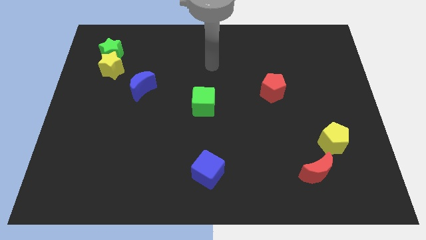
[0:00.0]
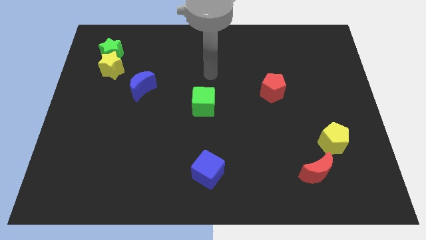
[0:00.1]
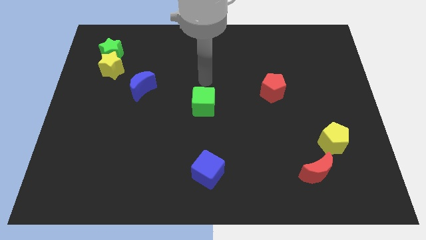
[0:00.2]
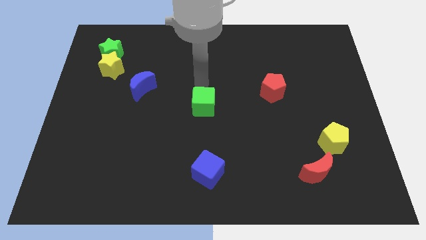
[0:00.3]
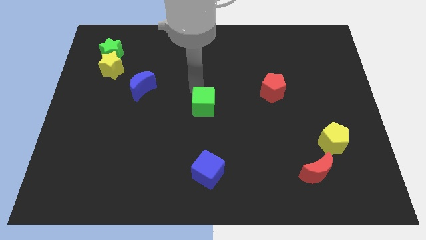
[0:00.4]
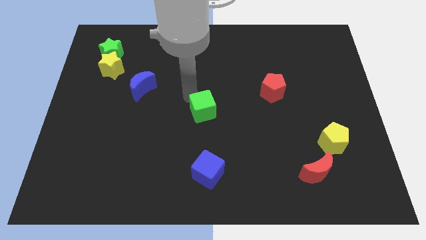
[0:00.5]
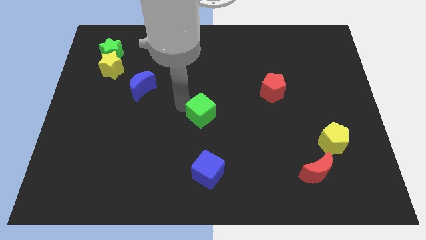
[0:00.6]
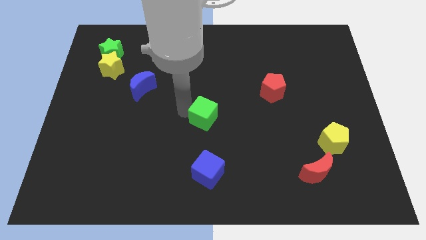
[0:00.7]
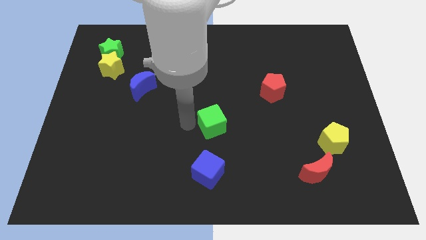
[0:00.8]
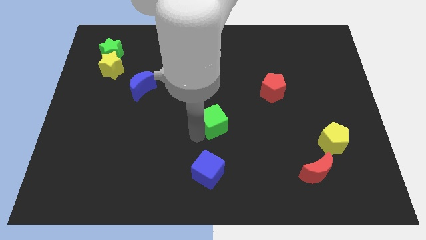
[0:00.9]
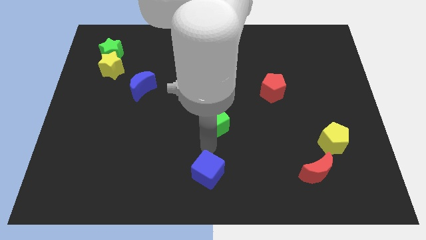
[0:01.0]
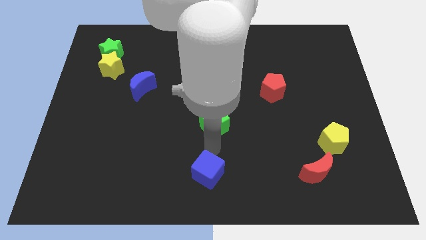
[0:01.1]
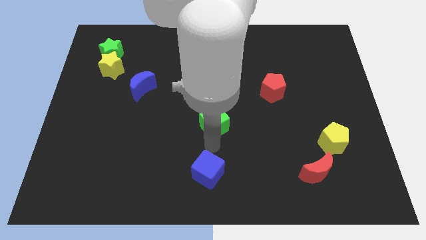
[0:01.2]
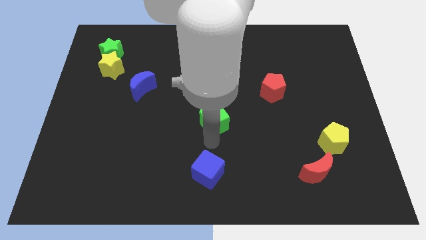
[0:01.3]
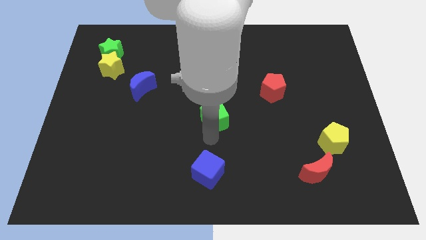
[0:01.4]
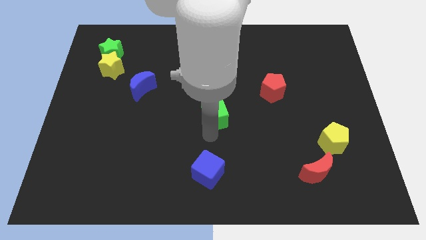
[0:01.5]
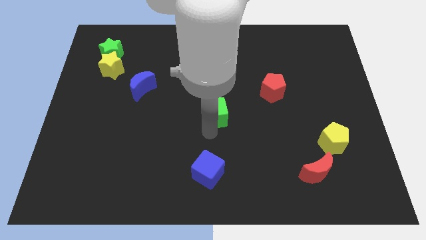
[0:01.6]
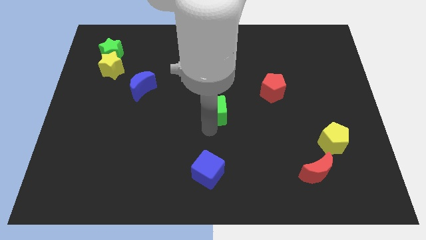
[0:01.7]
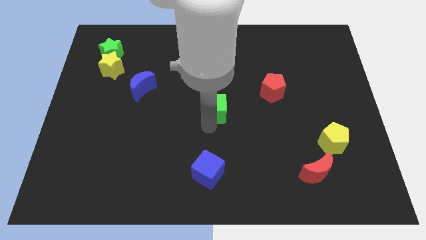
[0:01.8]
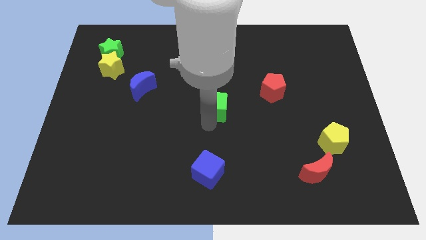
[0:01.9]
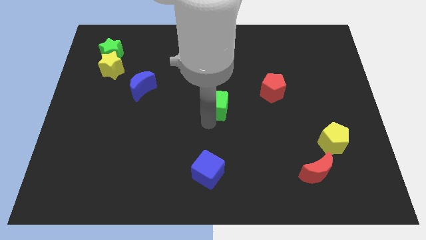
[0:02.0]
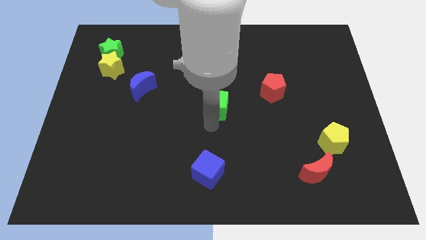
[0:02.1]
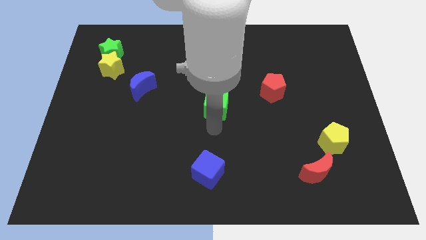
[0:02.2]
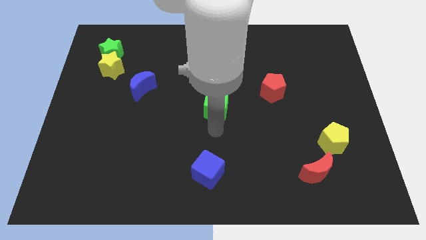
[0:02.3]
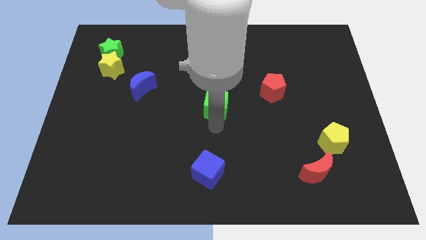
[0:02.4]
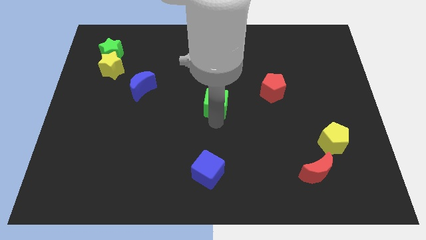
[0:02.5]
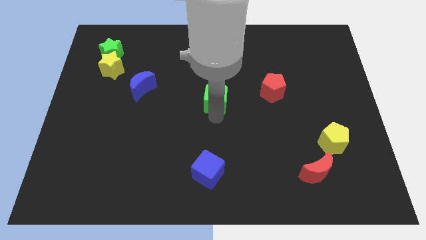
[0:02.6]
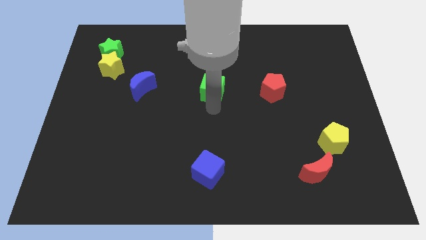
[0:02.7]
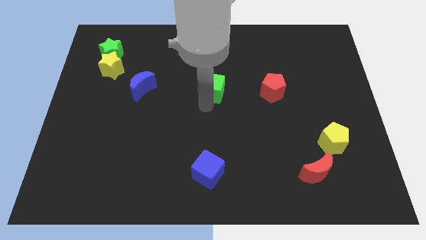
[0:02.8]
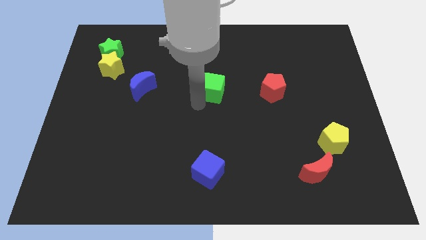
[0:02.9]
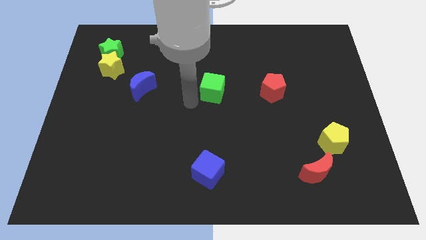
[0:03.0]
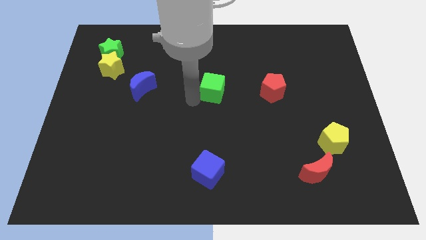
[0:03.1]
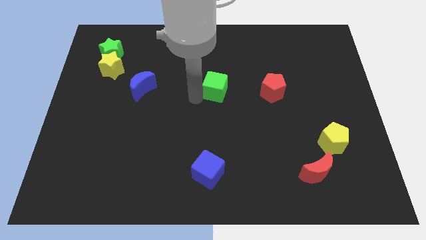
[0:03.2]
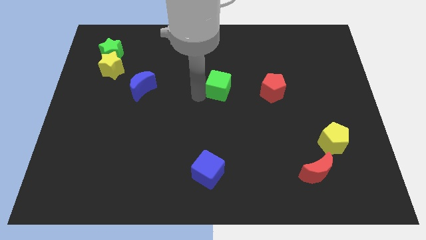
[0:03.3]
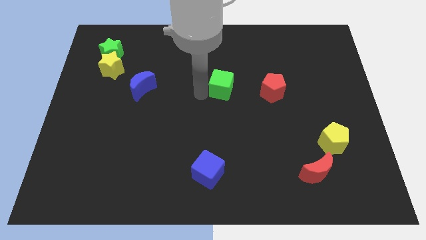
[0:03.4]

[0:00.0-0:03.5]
slightly push the green cube diagonally upwards and to the right

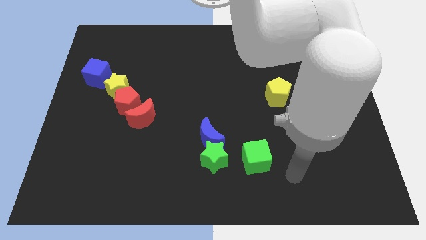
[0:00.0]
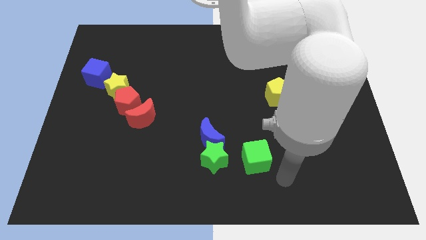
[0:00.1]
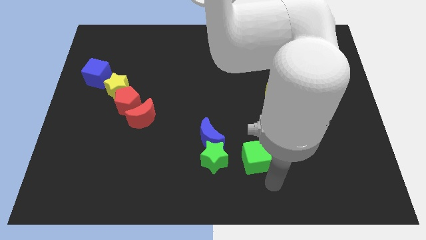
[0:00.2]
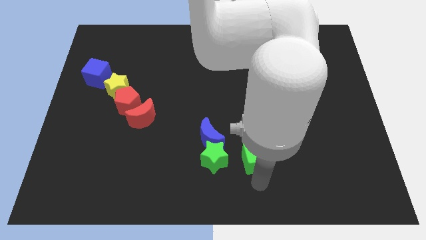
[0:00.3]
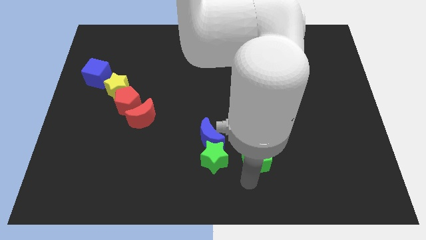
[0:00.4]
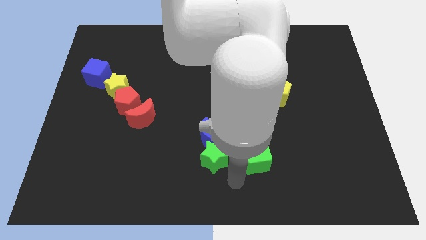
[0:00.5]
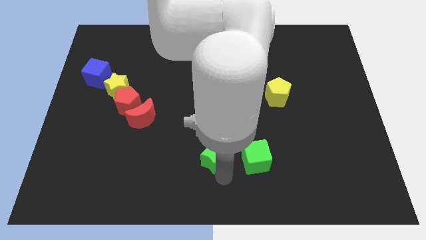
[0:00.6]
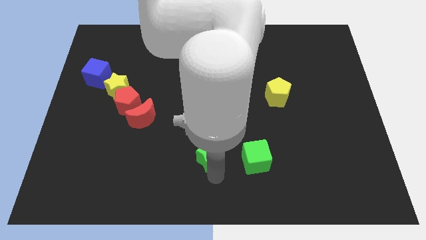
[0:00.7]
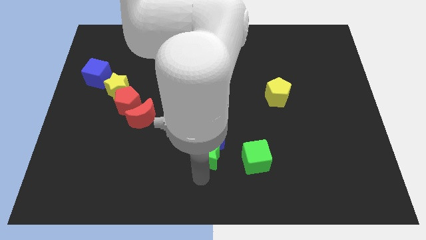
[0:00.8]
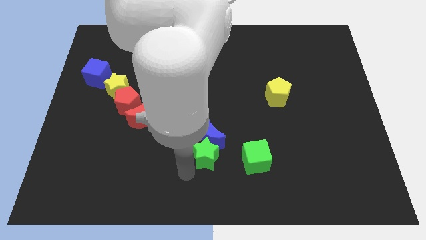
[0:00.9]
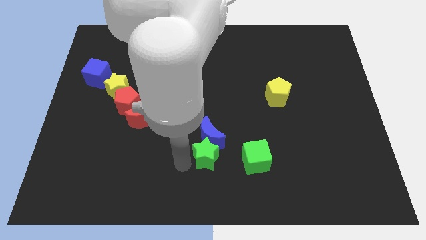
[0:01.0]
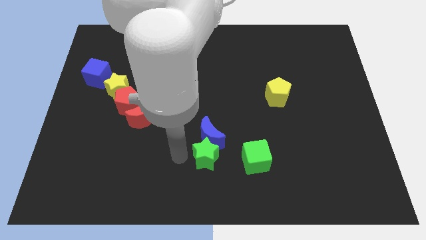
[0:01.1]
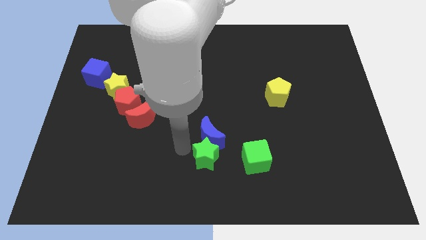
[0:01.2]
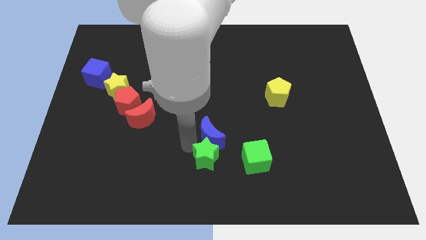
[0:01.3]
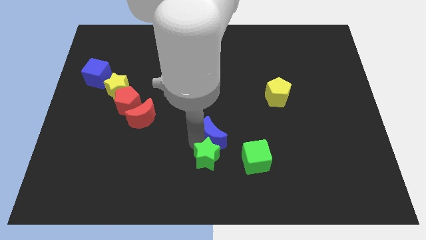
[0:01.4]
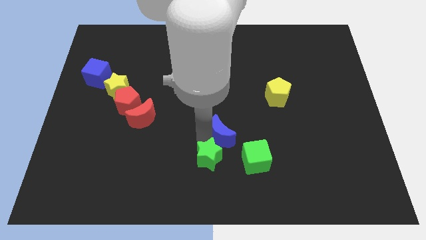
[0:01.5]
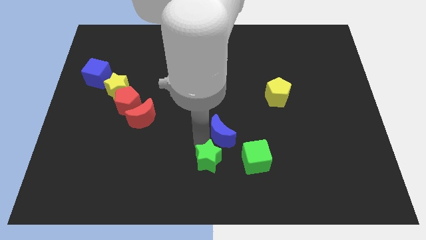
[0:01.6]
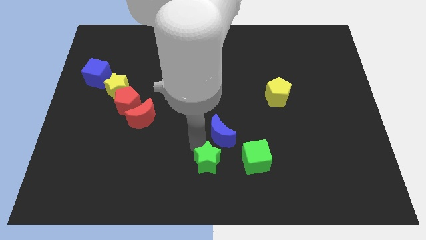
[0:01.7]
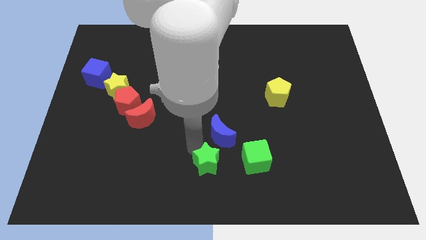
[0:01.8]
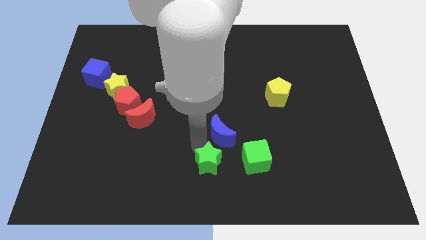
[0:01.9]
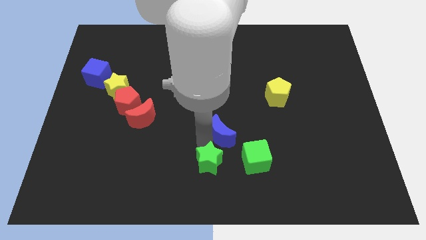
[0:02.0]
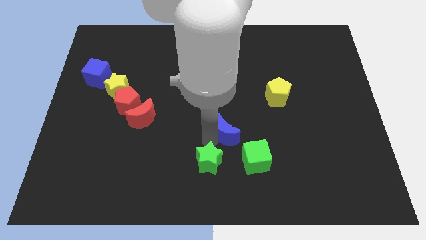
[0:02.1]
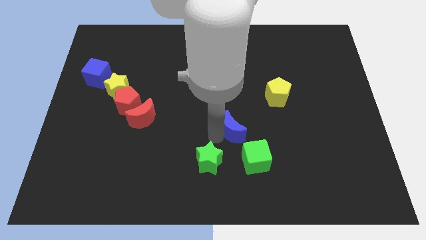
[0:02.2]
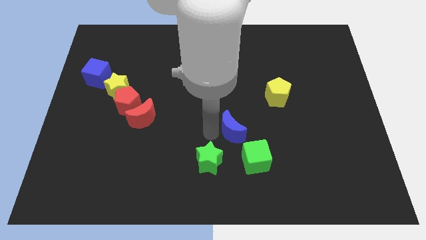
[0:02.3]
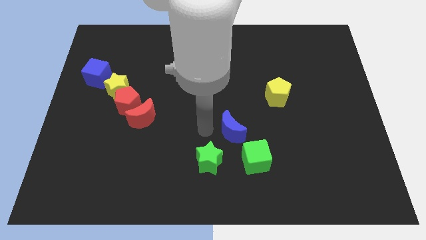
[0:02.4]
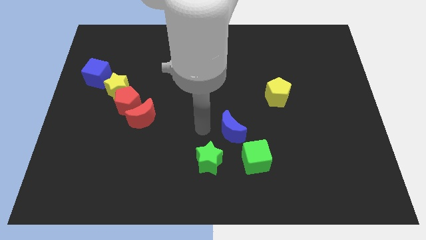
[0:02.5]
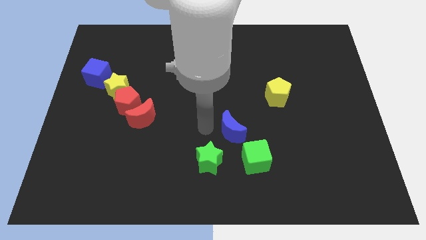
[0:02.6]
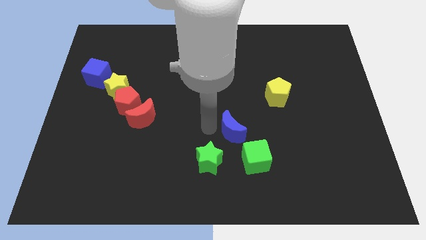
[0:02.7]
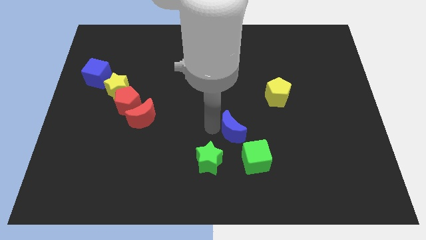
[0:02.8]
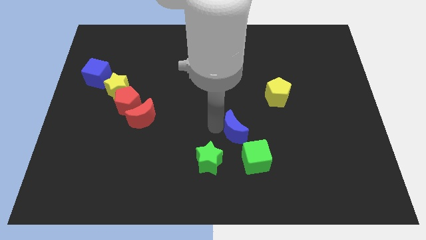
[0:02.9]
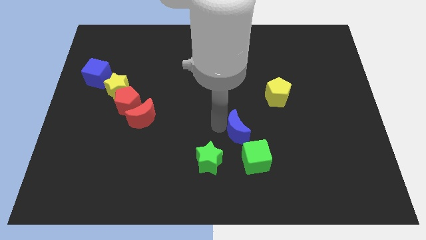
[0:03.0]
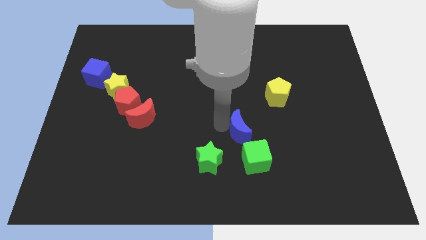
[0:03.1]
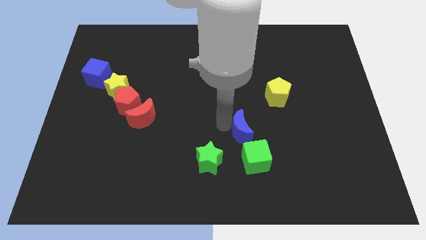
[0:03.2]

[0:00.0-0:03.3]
push the blue moon slightly right

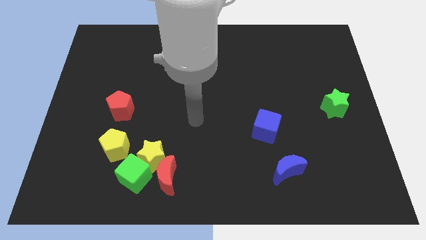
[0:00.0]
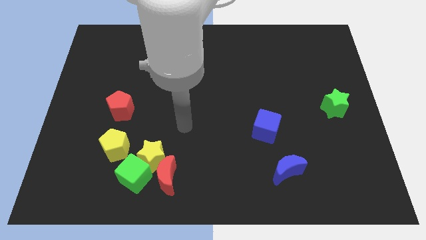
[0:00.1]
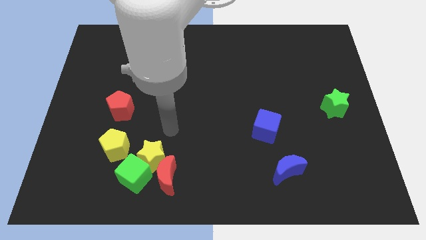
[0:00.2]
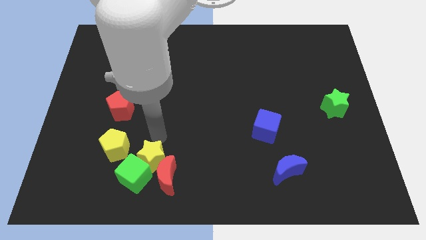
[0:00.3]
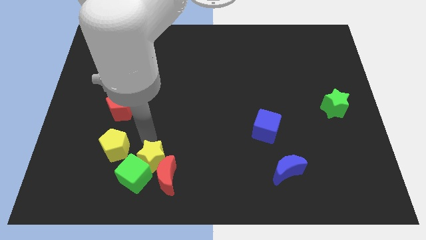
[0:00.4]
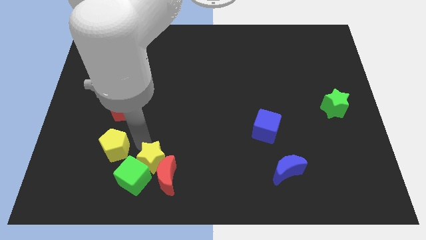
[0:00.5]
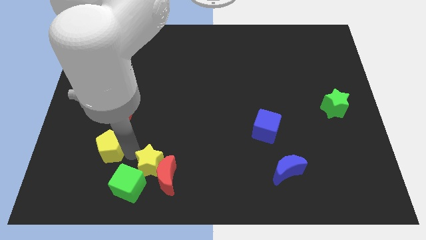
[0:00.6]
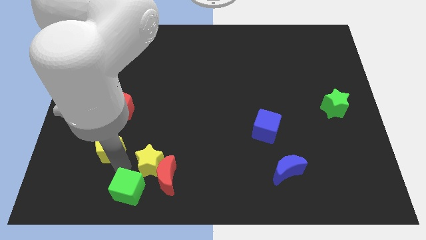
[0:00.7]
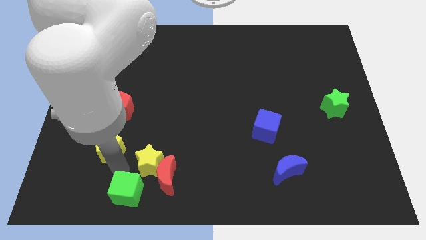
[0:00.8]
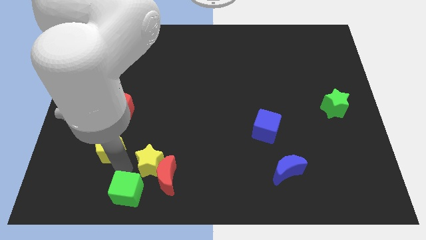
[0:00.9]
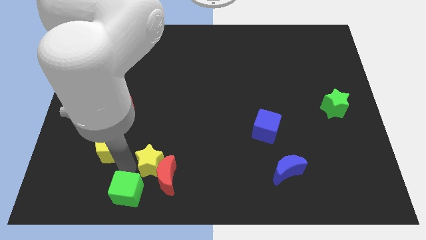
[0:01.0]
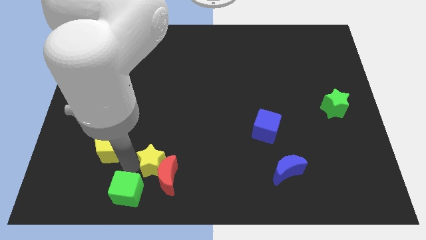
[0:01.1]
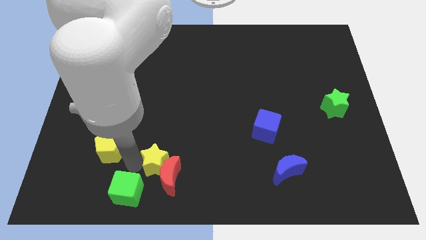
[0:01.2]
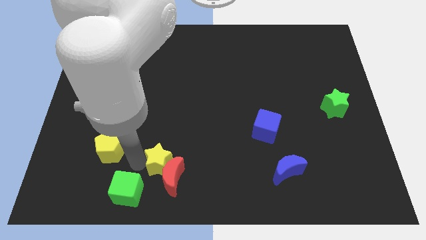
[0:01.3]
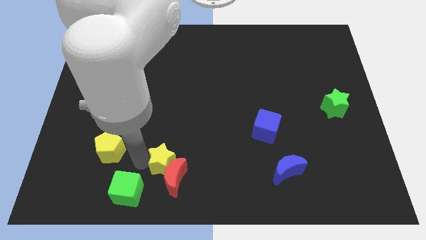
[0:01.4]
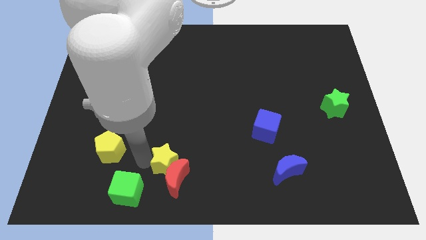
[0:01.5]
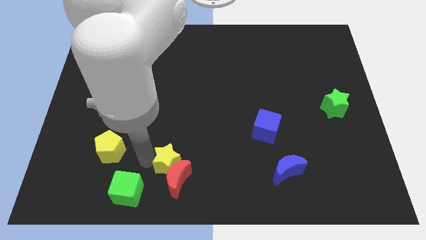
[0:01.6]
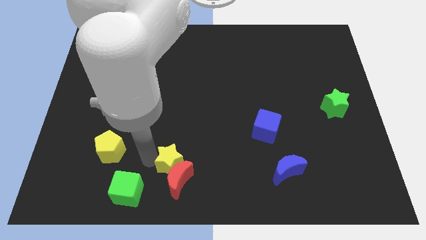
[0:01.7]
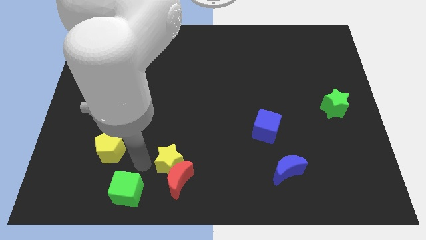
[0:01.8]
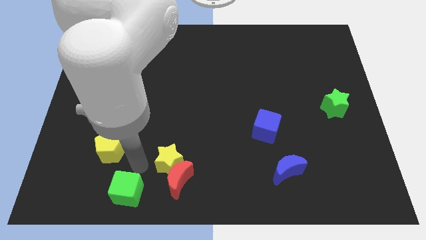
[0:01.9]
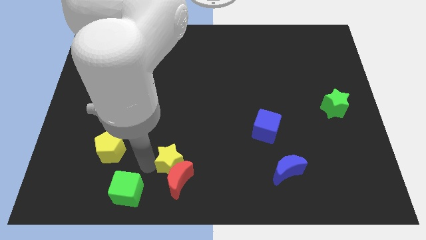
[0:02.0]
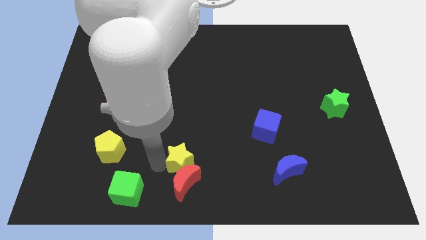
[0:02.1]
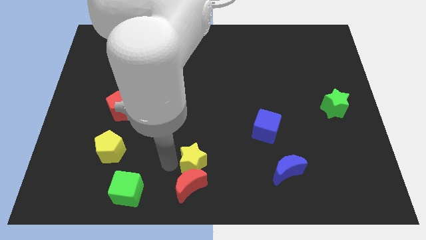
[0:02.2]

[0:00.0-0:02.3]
slightly push the yellow star to the right
